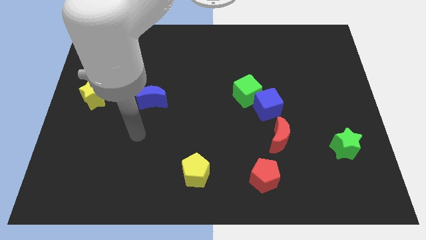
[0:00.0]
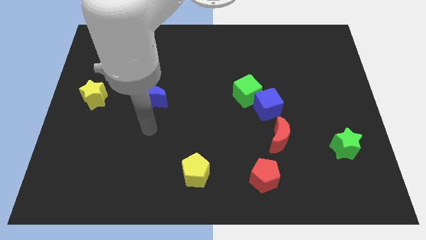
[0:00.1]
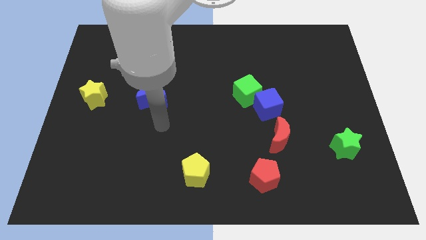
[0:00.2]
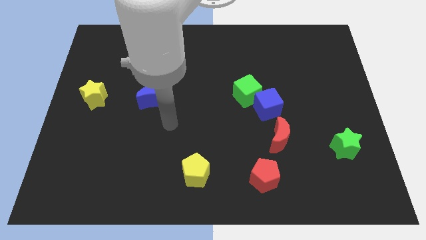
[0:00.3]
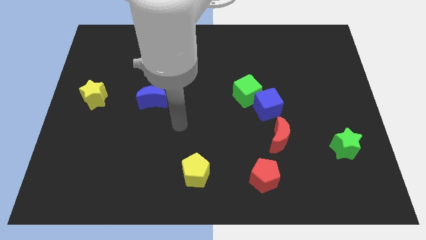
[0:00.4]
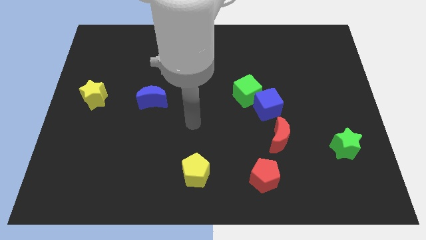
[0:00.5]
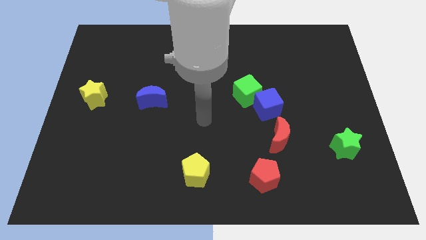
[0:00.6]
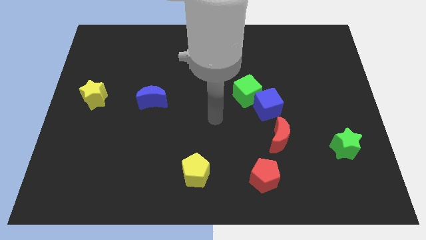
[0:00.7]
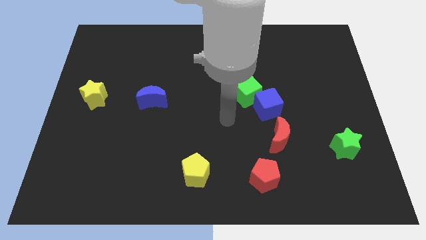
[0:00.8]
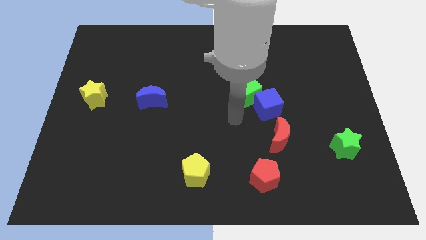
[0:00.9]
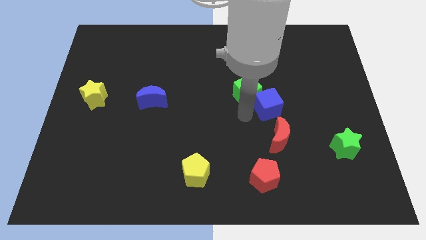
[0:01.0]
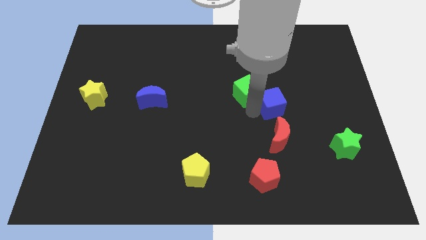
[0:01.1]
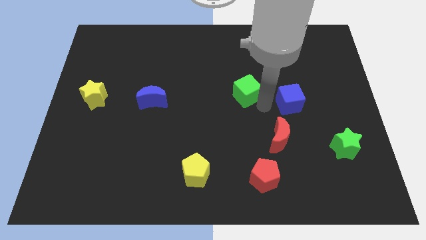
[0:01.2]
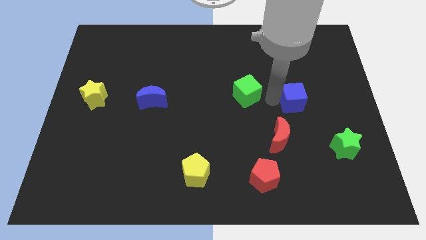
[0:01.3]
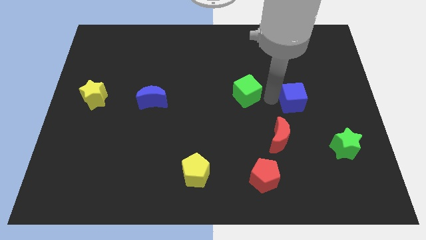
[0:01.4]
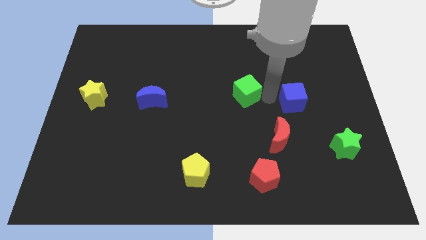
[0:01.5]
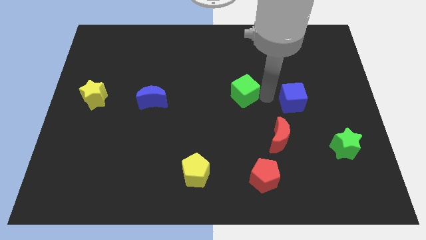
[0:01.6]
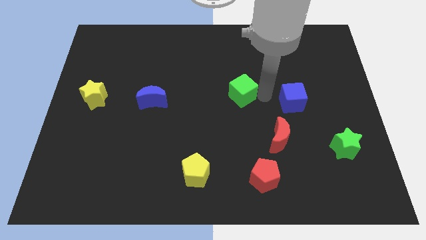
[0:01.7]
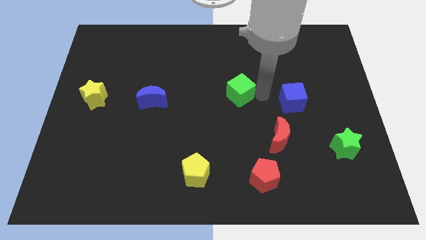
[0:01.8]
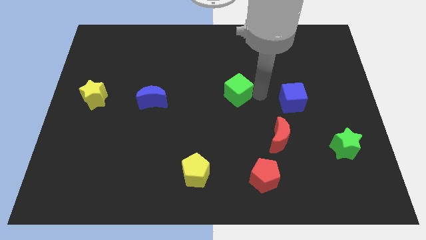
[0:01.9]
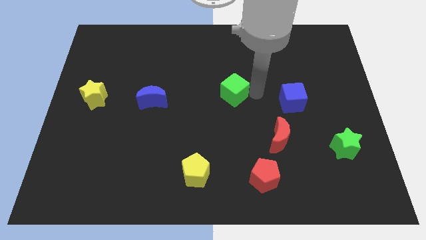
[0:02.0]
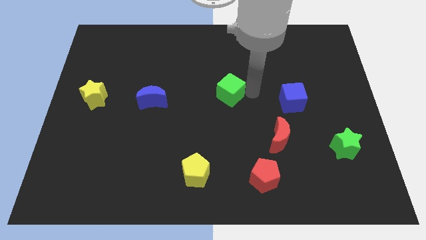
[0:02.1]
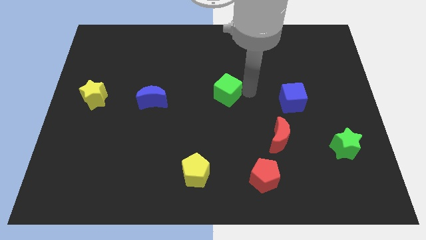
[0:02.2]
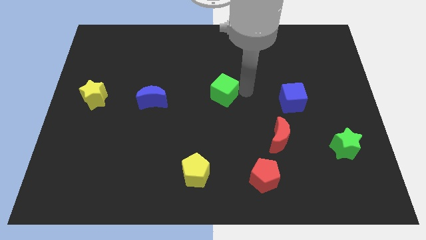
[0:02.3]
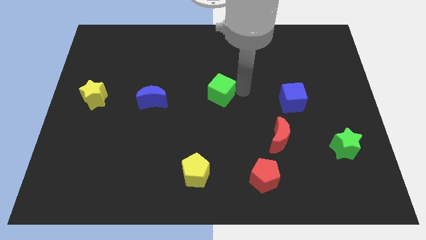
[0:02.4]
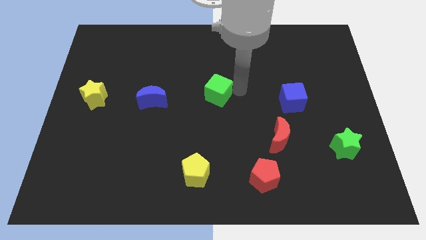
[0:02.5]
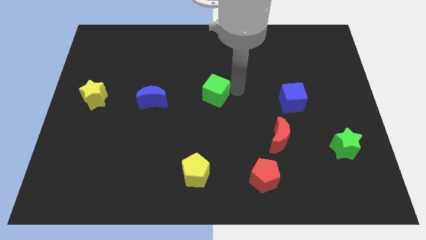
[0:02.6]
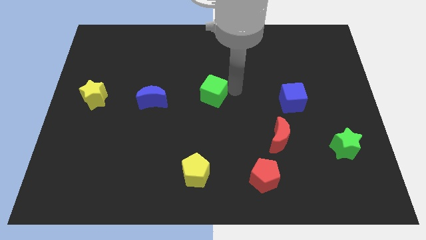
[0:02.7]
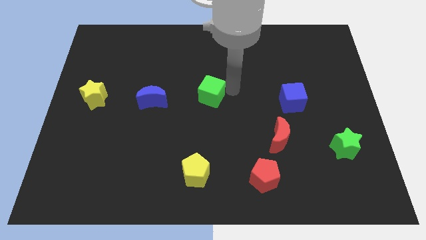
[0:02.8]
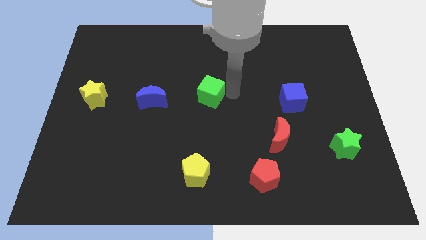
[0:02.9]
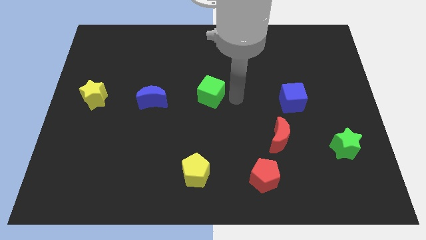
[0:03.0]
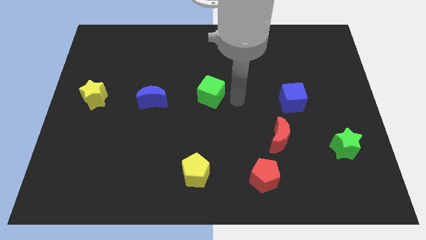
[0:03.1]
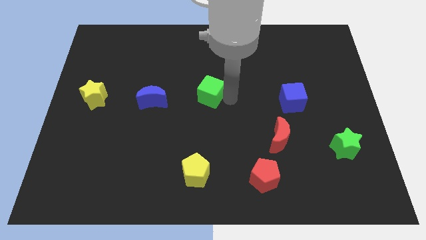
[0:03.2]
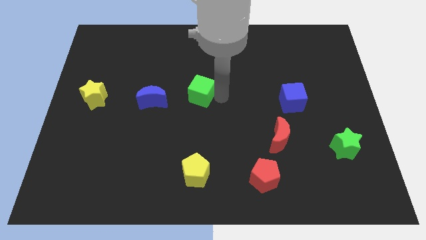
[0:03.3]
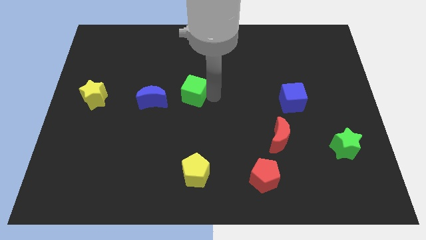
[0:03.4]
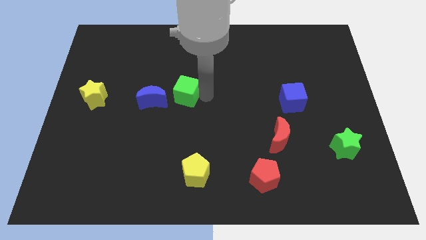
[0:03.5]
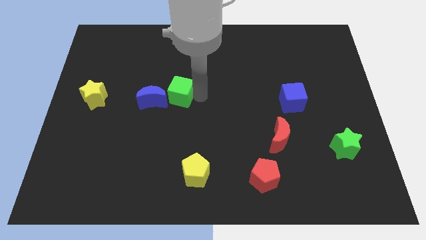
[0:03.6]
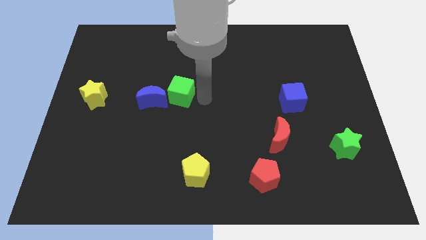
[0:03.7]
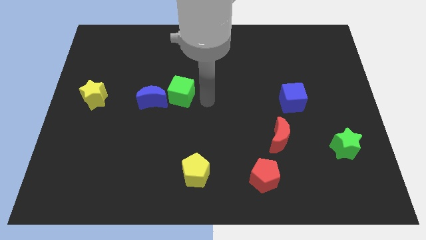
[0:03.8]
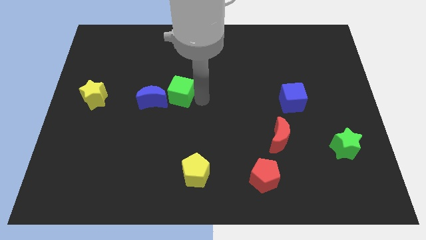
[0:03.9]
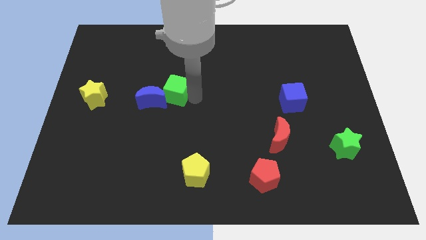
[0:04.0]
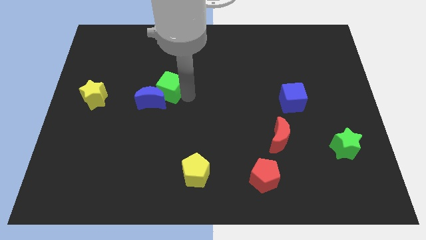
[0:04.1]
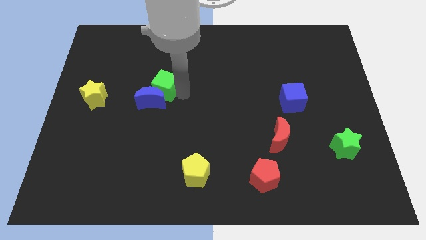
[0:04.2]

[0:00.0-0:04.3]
slide the green cube left

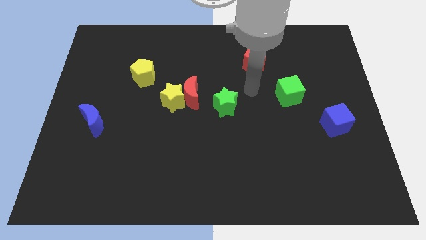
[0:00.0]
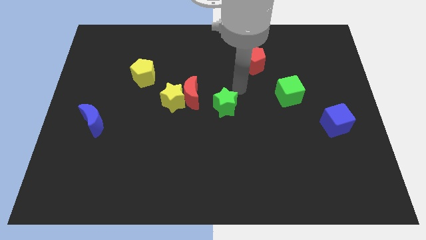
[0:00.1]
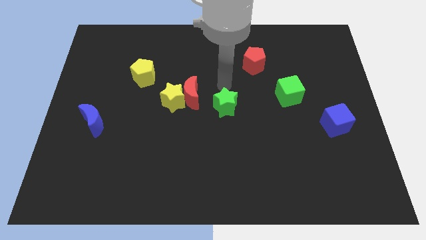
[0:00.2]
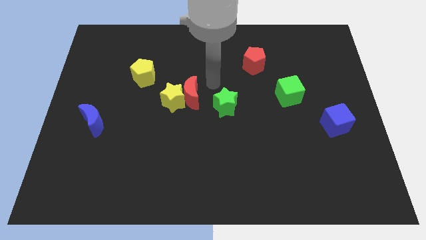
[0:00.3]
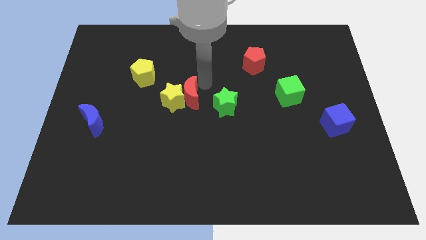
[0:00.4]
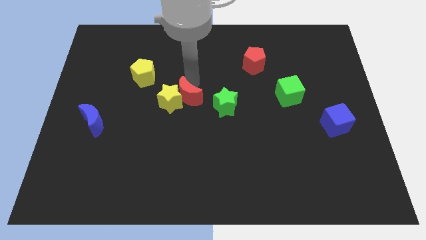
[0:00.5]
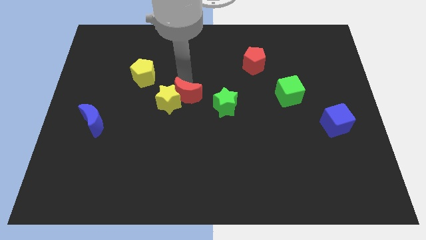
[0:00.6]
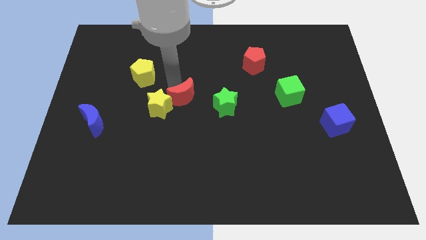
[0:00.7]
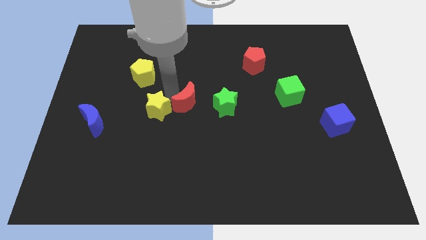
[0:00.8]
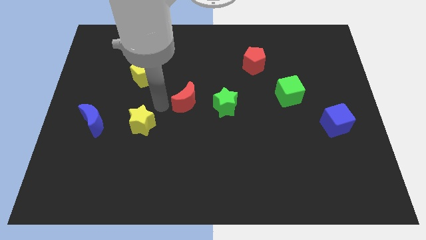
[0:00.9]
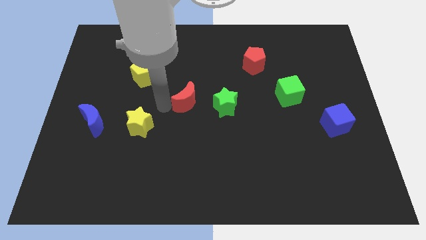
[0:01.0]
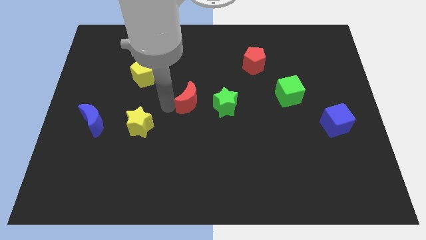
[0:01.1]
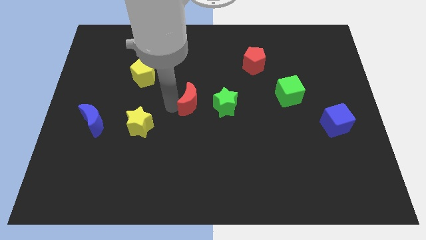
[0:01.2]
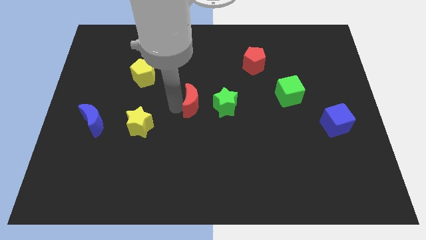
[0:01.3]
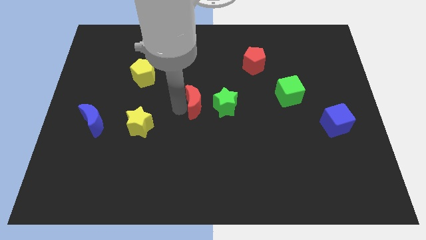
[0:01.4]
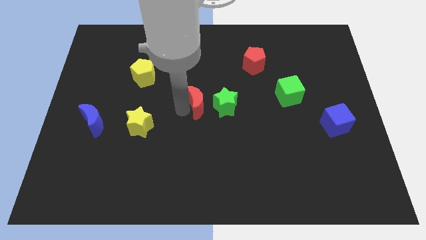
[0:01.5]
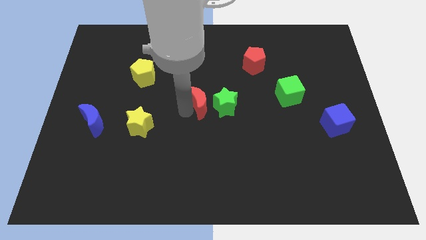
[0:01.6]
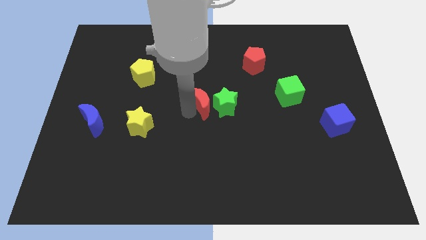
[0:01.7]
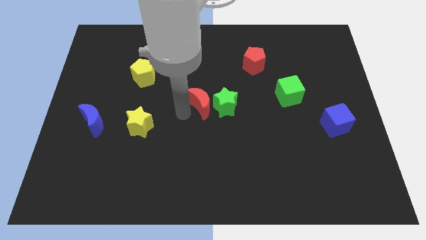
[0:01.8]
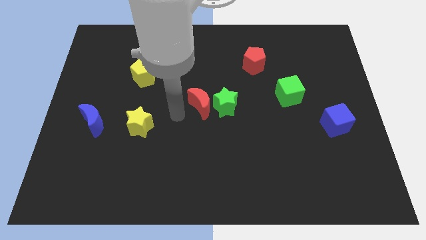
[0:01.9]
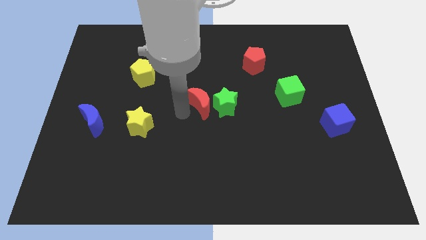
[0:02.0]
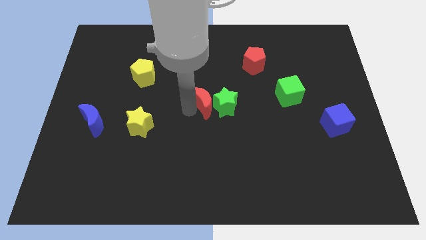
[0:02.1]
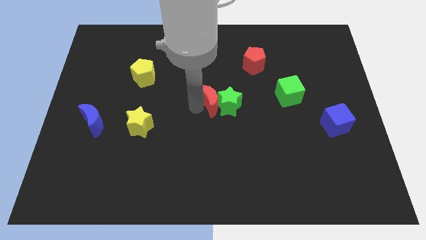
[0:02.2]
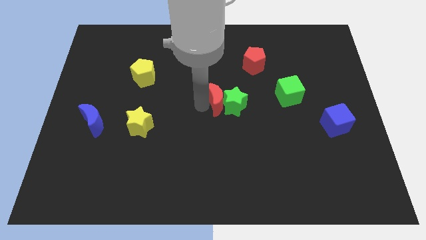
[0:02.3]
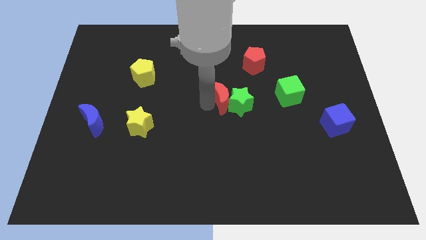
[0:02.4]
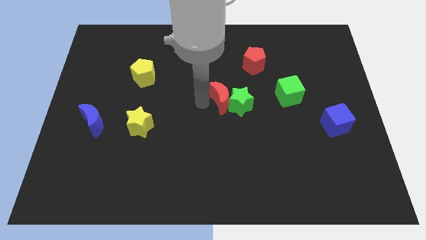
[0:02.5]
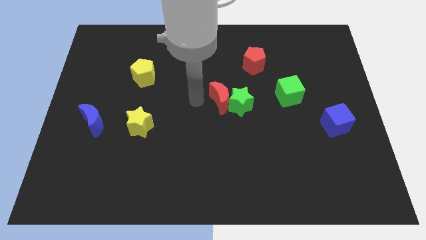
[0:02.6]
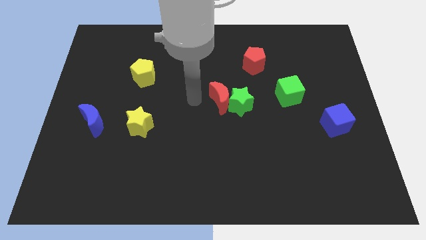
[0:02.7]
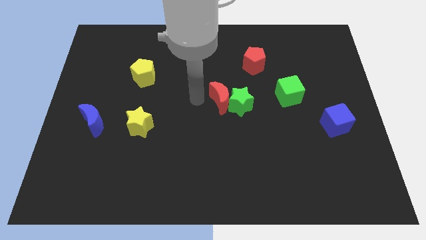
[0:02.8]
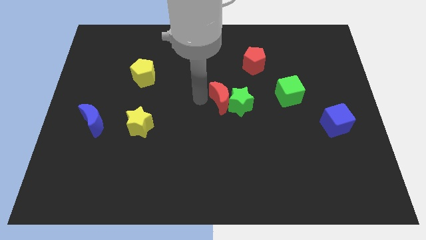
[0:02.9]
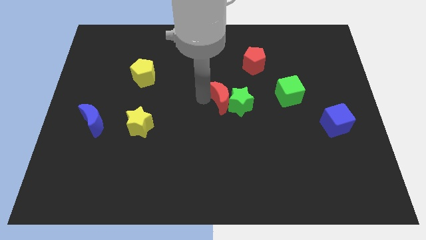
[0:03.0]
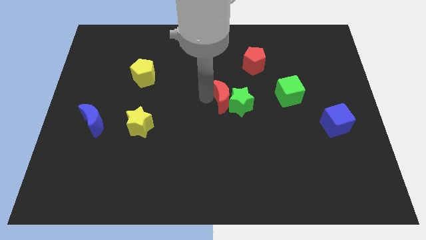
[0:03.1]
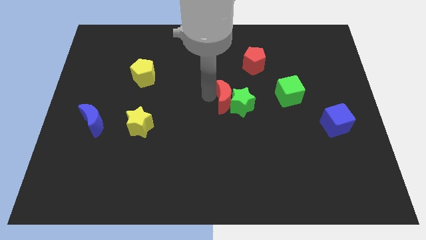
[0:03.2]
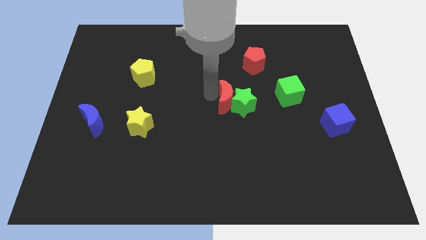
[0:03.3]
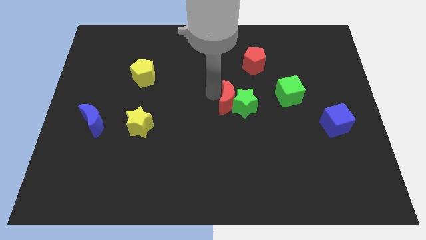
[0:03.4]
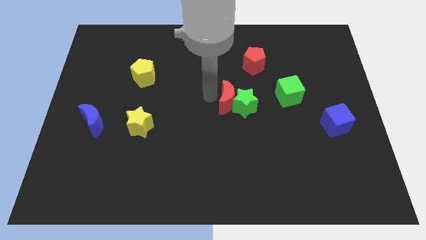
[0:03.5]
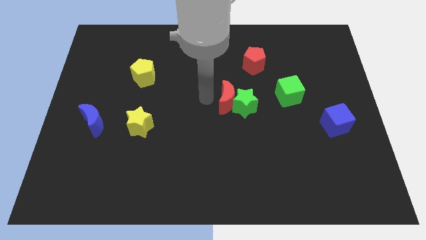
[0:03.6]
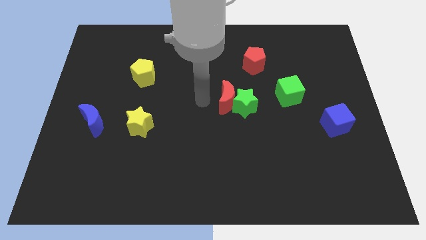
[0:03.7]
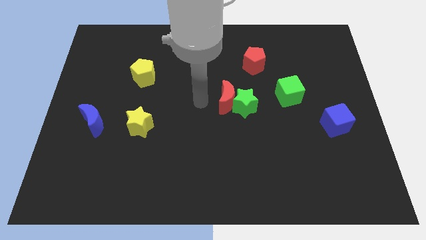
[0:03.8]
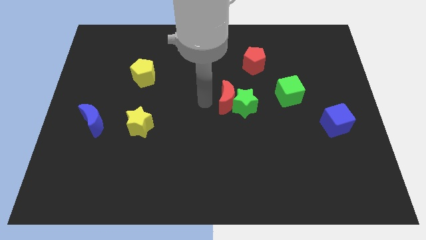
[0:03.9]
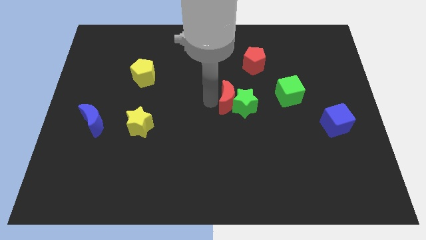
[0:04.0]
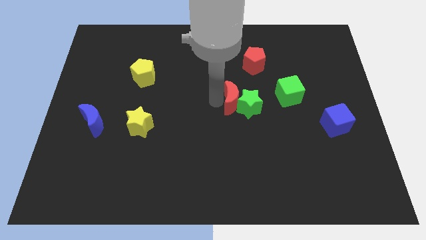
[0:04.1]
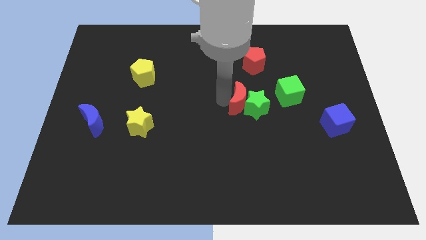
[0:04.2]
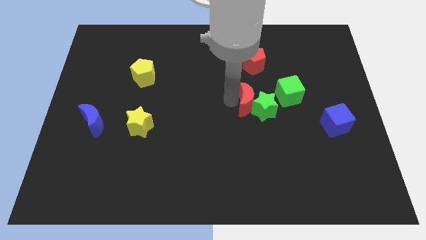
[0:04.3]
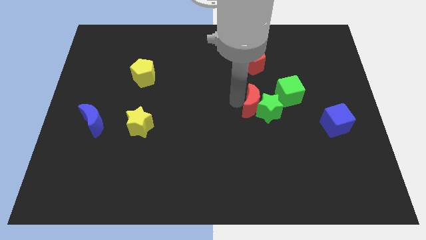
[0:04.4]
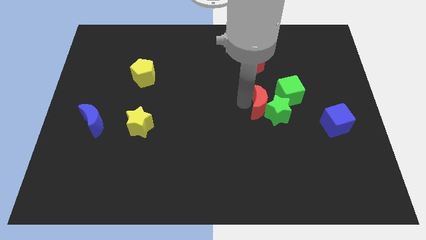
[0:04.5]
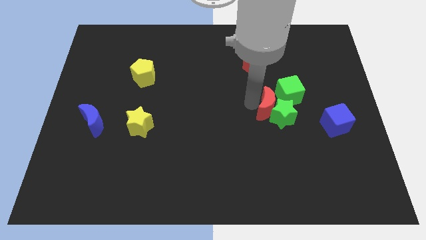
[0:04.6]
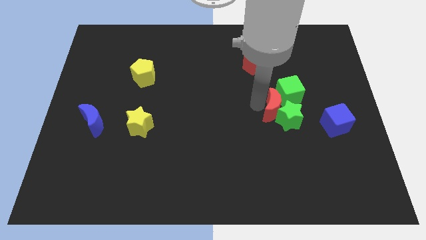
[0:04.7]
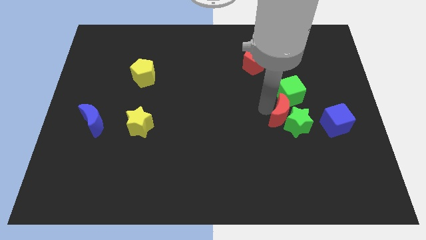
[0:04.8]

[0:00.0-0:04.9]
slide the red moon to the right
